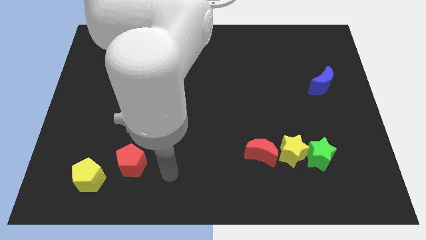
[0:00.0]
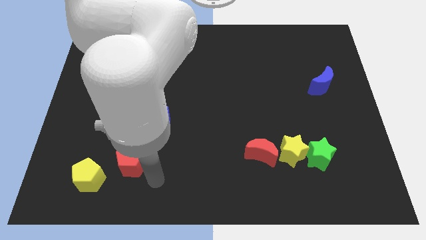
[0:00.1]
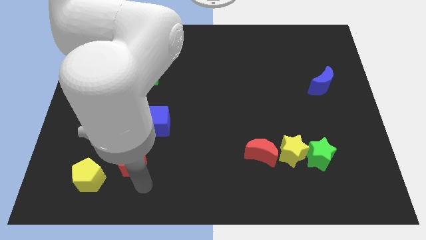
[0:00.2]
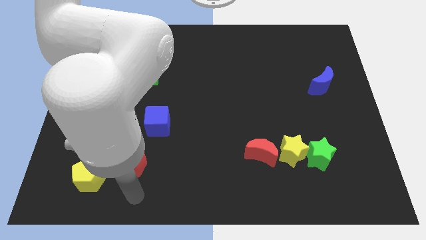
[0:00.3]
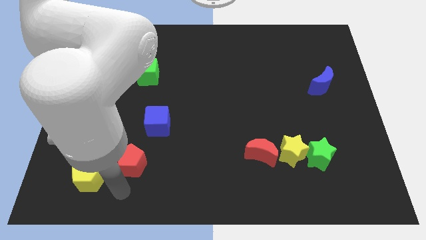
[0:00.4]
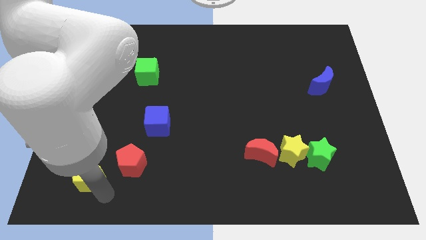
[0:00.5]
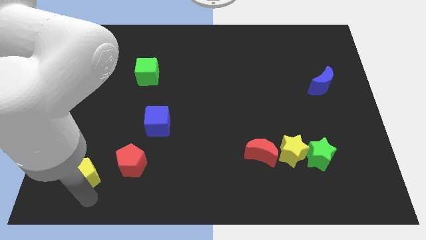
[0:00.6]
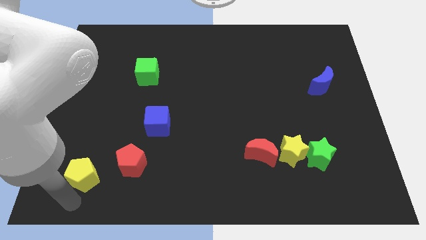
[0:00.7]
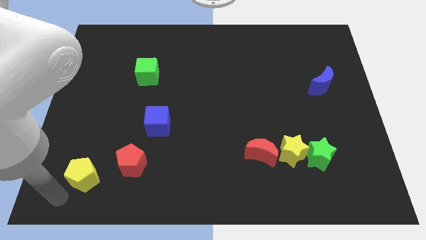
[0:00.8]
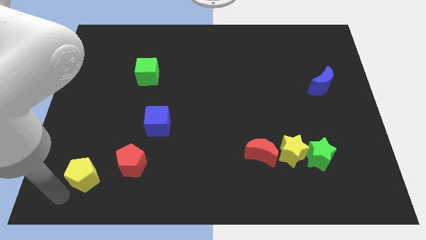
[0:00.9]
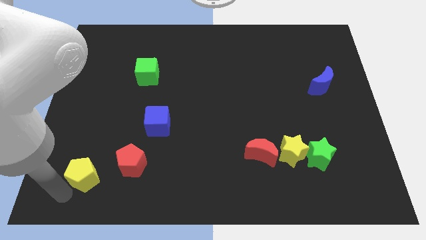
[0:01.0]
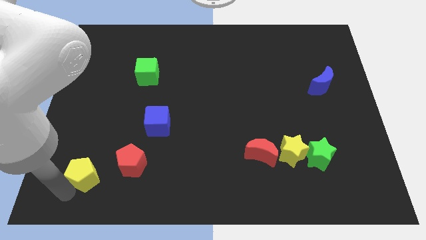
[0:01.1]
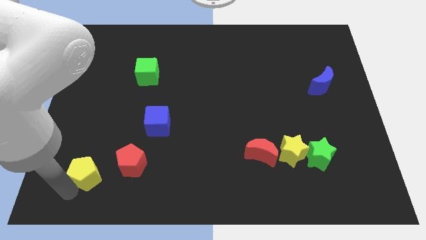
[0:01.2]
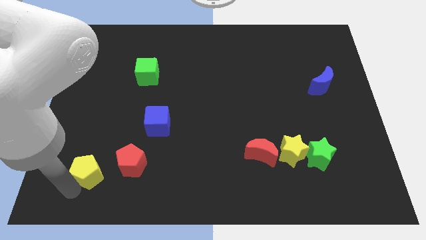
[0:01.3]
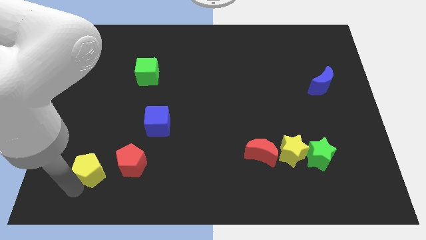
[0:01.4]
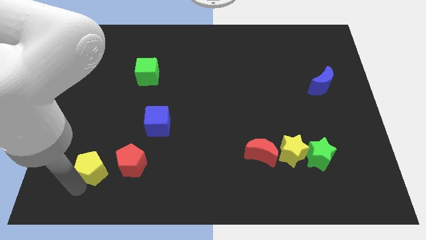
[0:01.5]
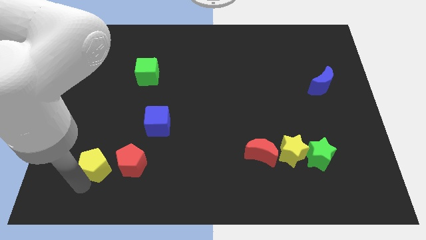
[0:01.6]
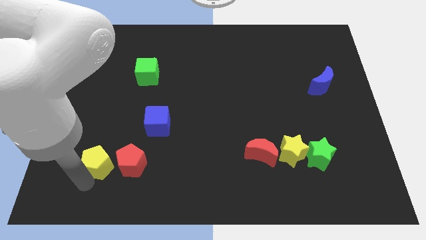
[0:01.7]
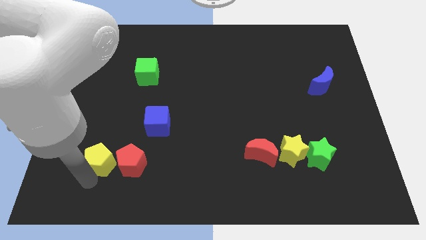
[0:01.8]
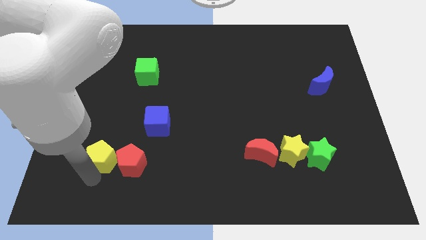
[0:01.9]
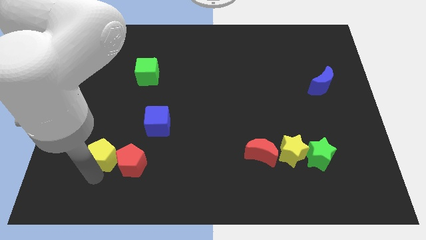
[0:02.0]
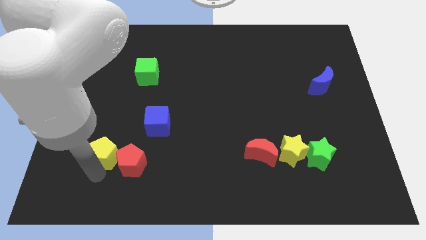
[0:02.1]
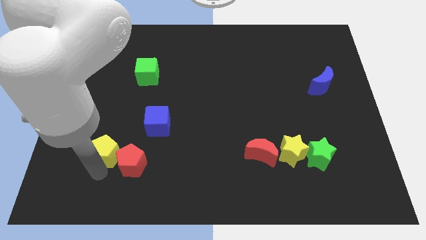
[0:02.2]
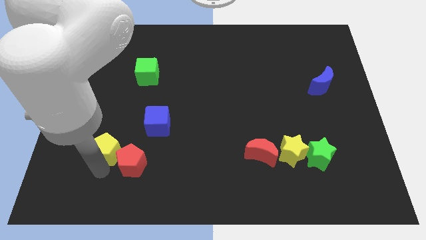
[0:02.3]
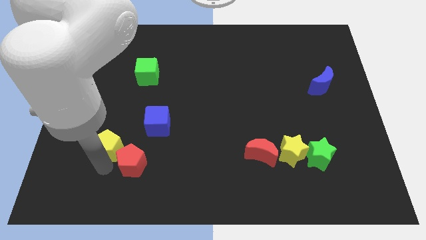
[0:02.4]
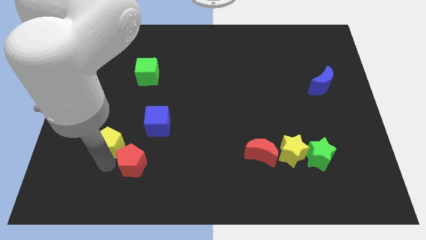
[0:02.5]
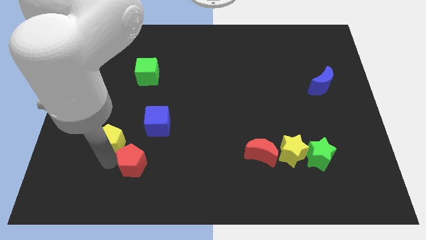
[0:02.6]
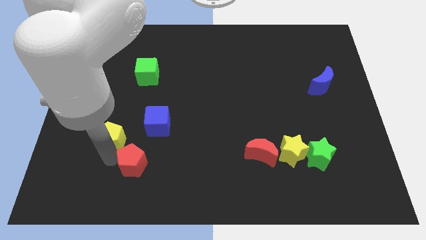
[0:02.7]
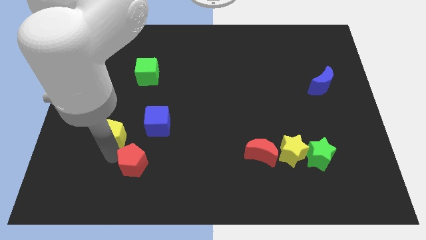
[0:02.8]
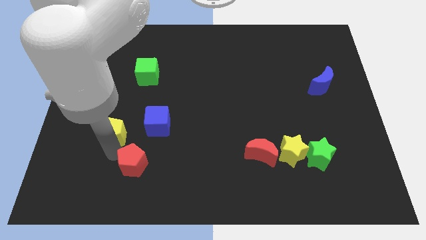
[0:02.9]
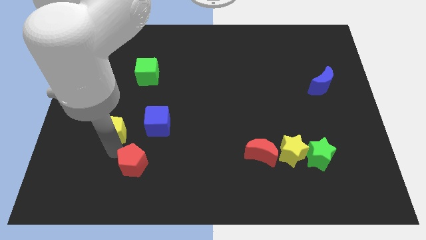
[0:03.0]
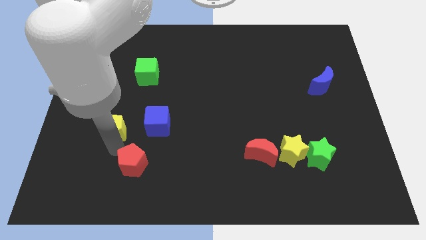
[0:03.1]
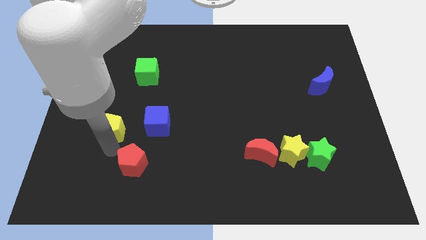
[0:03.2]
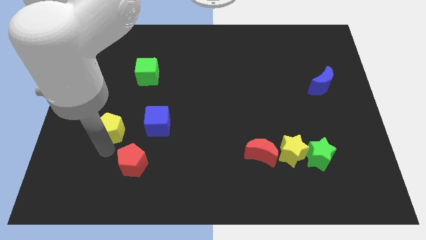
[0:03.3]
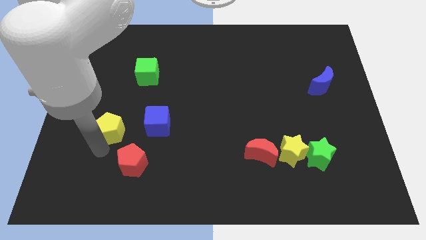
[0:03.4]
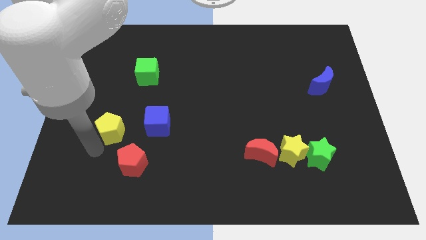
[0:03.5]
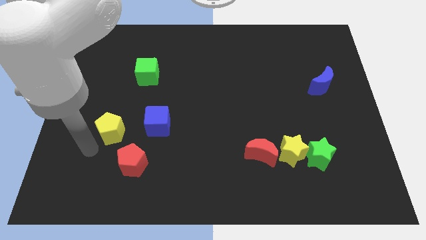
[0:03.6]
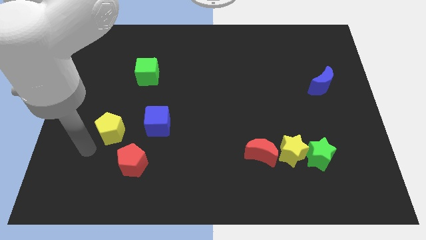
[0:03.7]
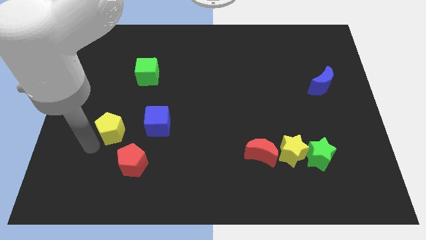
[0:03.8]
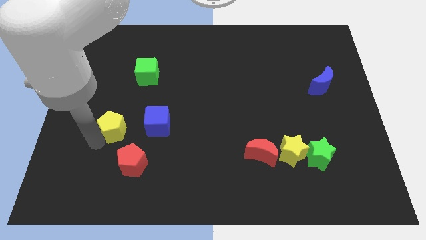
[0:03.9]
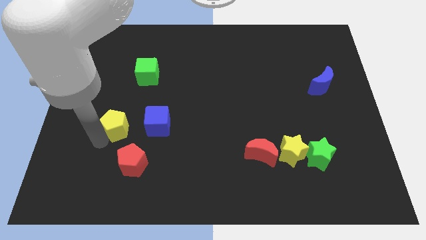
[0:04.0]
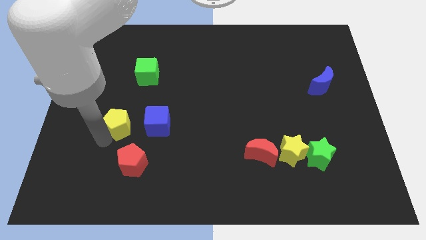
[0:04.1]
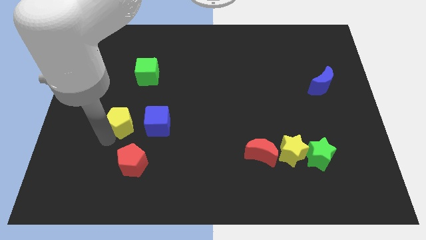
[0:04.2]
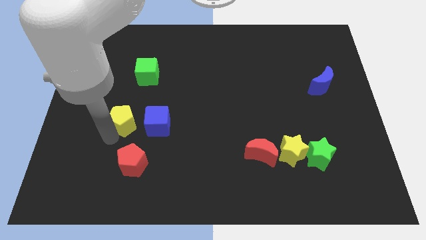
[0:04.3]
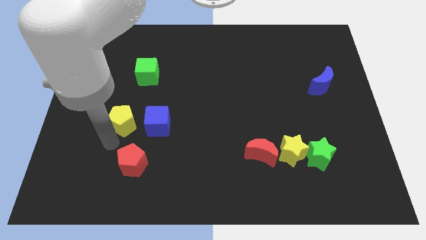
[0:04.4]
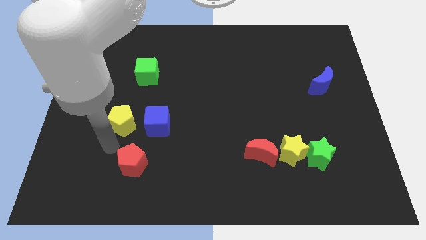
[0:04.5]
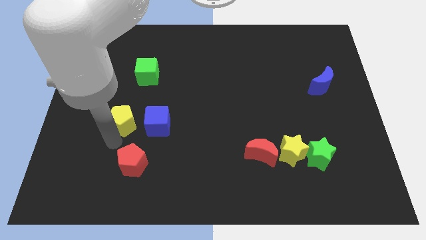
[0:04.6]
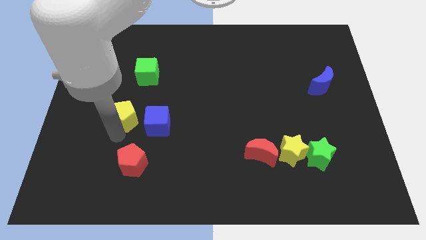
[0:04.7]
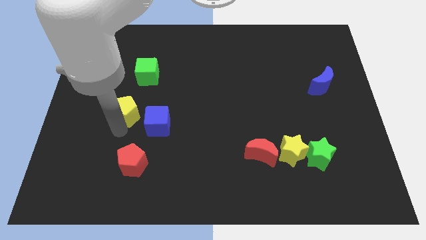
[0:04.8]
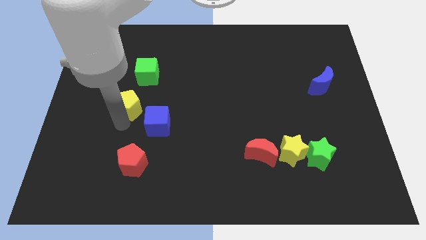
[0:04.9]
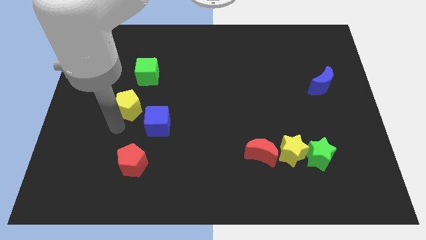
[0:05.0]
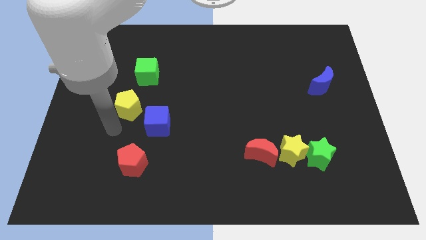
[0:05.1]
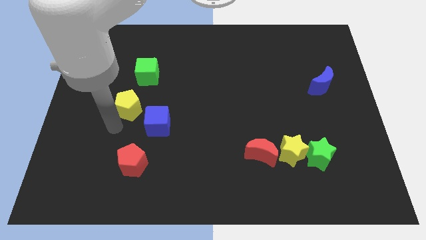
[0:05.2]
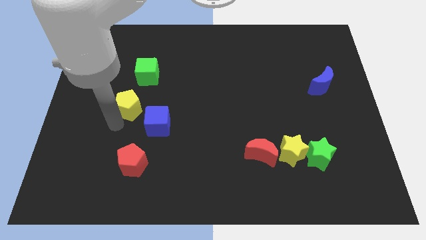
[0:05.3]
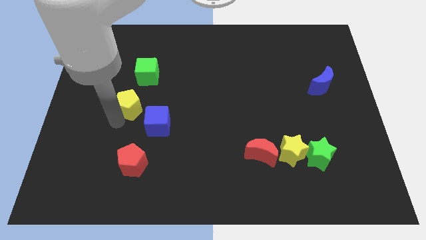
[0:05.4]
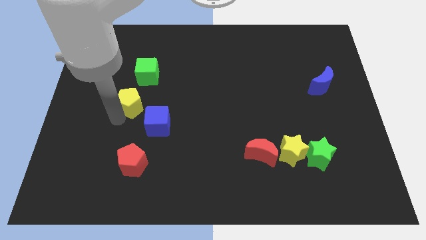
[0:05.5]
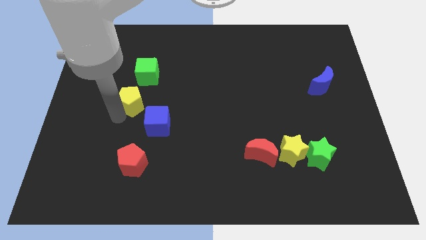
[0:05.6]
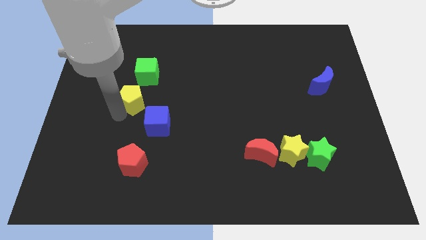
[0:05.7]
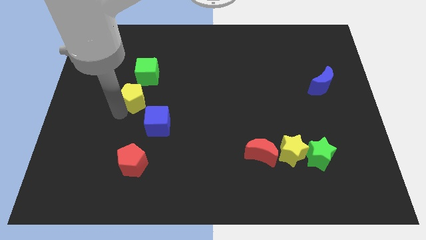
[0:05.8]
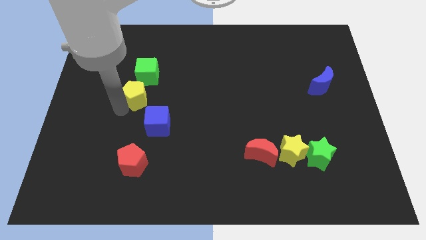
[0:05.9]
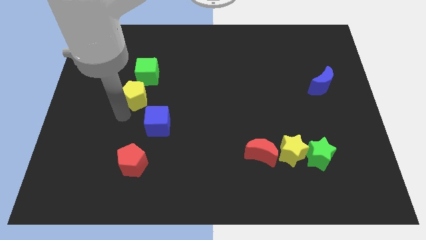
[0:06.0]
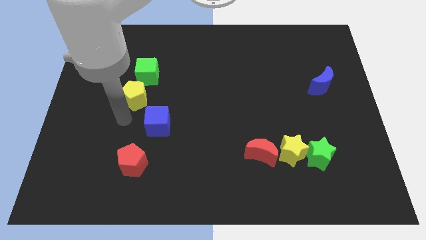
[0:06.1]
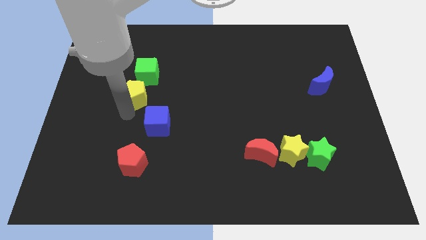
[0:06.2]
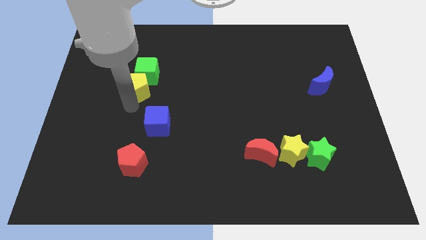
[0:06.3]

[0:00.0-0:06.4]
slide the yellow pentagon towards the green cube
